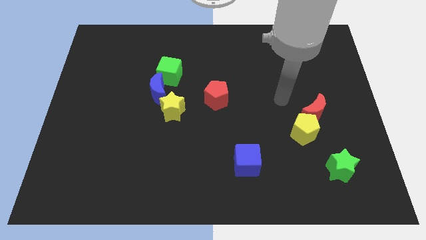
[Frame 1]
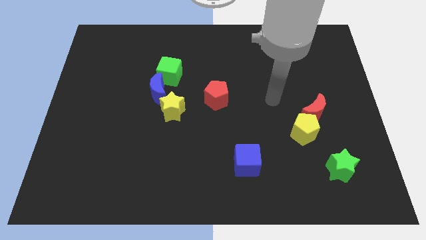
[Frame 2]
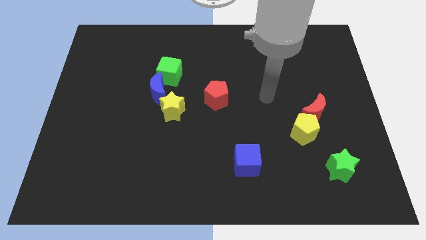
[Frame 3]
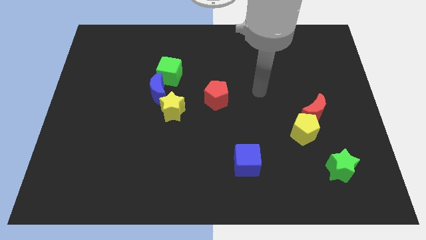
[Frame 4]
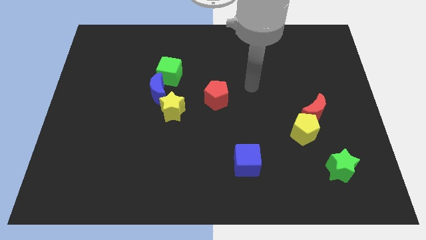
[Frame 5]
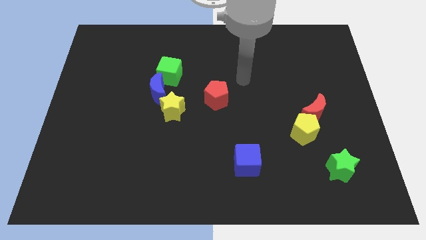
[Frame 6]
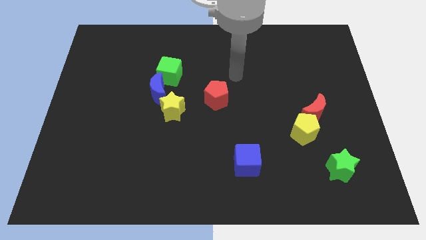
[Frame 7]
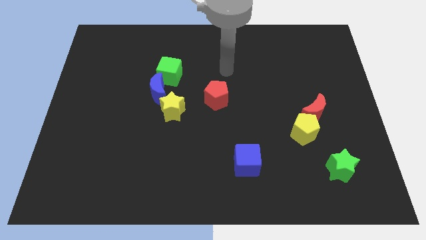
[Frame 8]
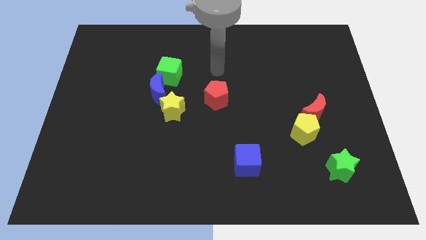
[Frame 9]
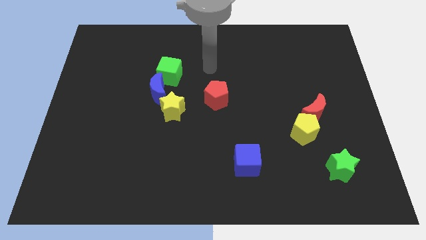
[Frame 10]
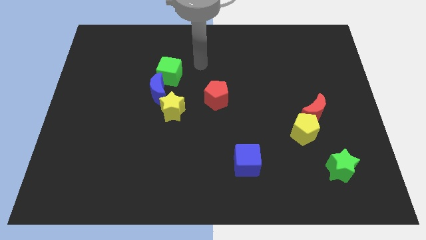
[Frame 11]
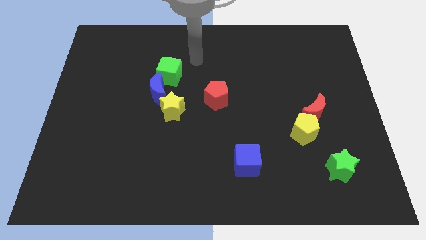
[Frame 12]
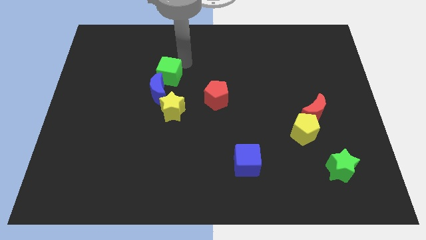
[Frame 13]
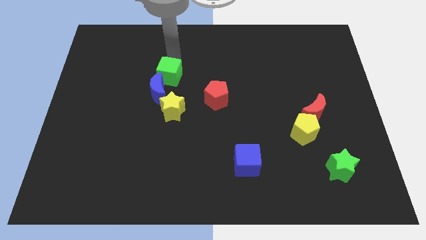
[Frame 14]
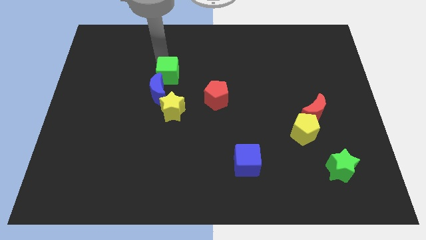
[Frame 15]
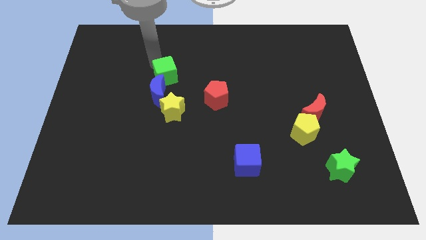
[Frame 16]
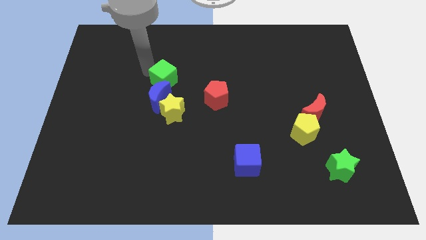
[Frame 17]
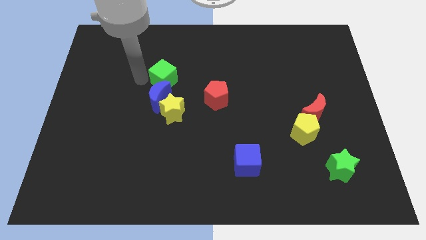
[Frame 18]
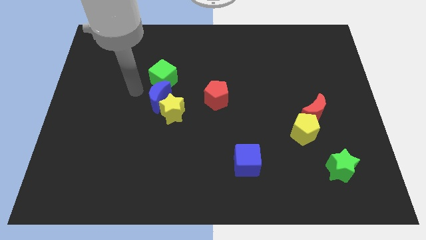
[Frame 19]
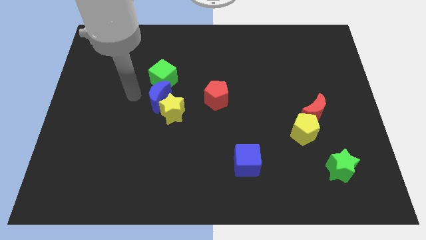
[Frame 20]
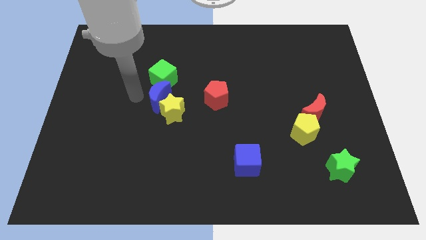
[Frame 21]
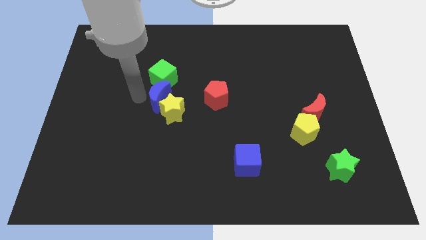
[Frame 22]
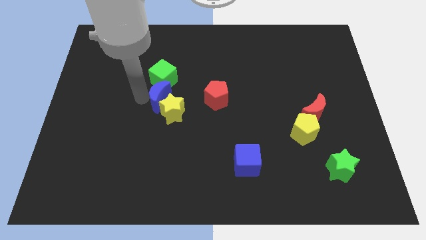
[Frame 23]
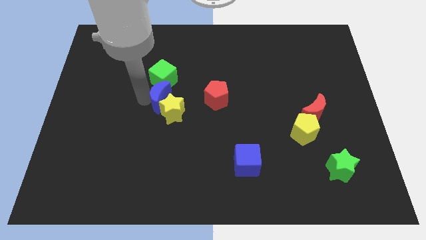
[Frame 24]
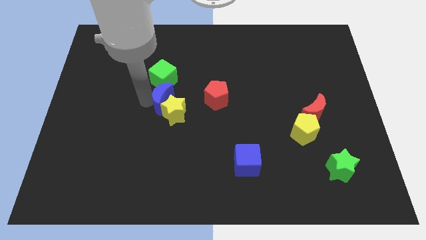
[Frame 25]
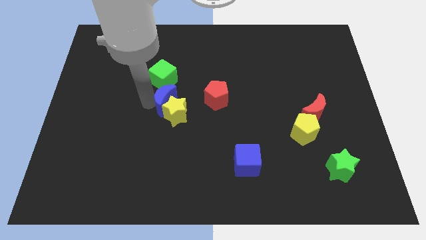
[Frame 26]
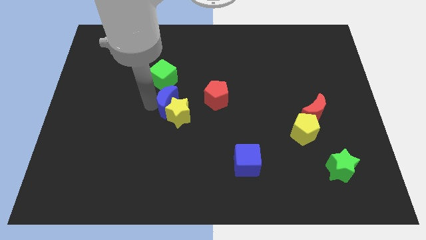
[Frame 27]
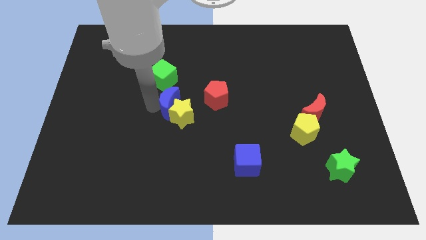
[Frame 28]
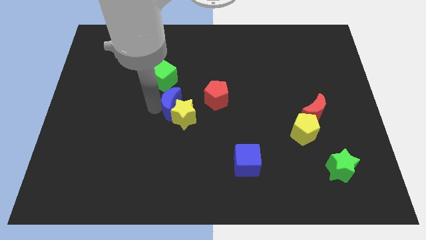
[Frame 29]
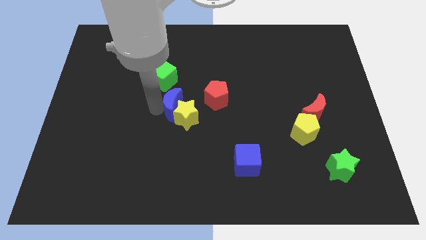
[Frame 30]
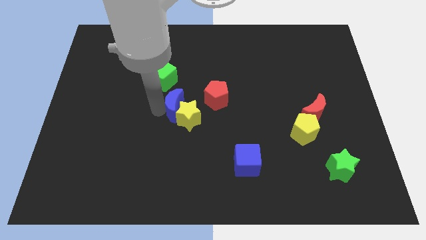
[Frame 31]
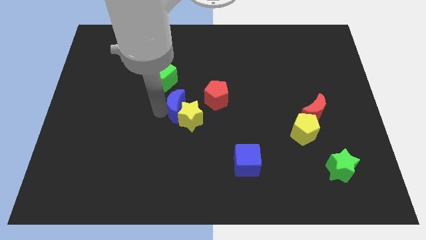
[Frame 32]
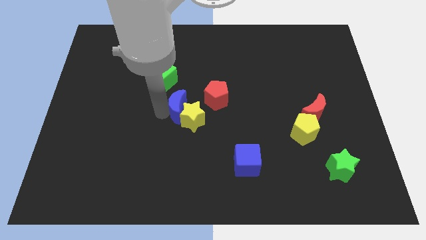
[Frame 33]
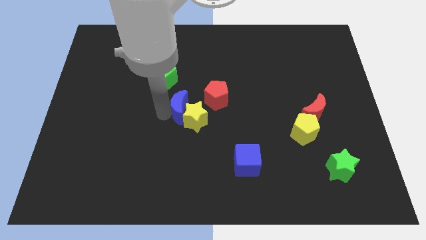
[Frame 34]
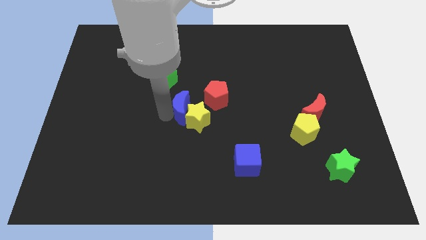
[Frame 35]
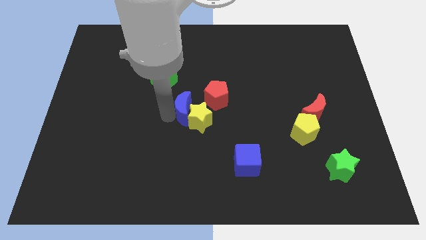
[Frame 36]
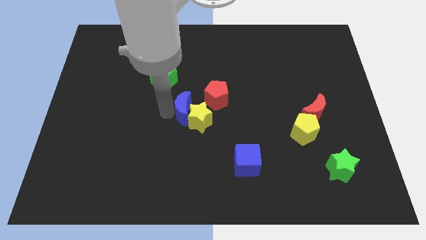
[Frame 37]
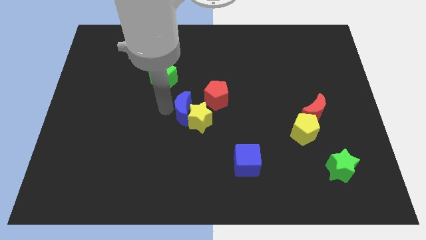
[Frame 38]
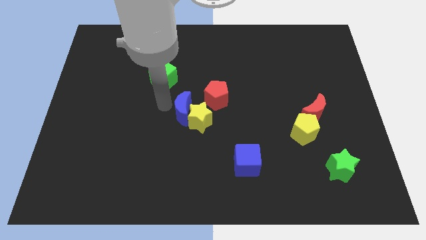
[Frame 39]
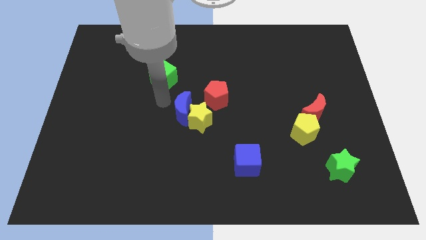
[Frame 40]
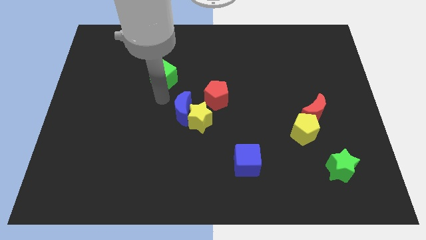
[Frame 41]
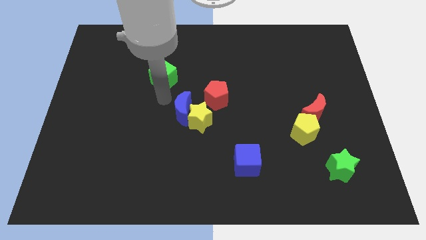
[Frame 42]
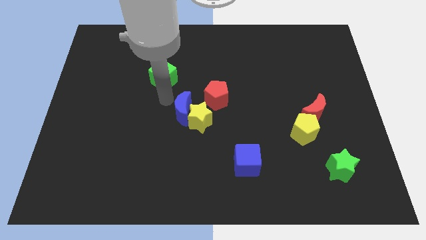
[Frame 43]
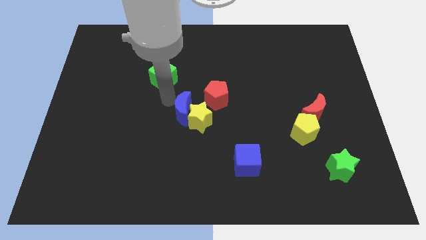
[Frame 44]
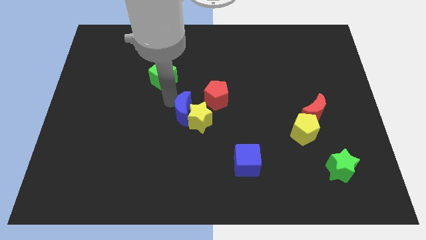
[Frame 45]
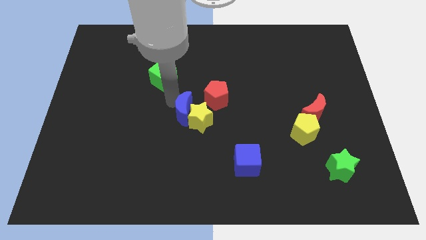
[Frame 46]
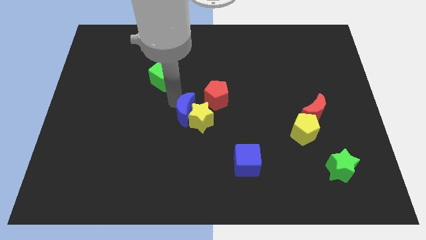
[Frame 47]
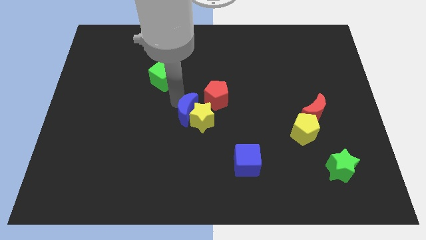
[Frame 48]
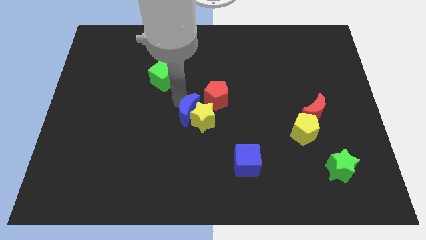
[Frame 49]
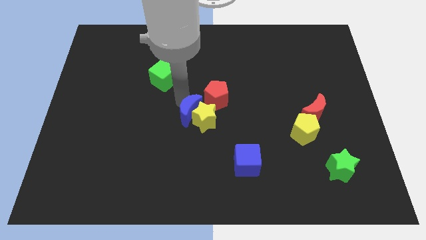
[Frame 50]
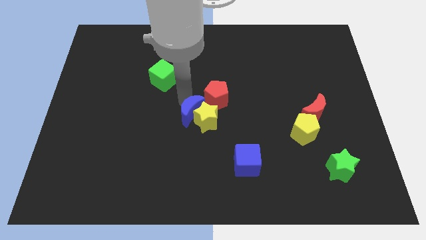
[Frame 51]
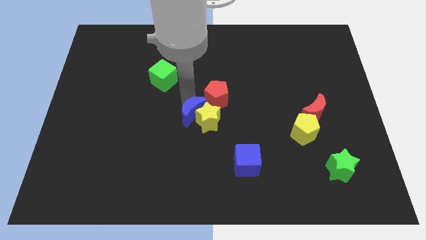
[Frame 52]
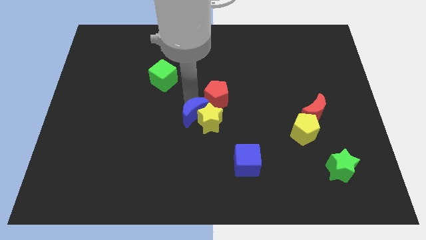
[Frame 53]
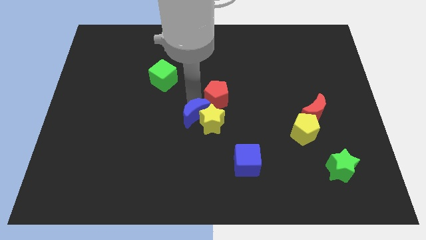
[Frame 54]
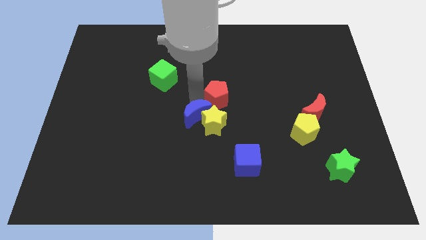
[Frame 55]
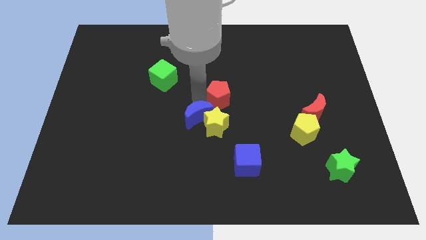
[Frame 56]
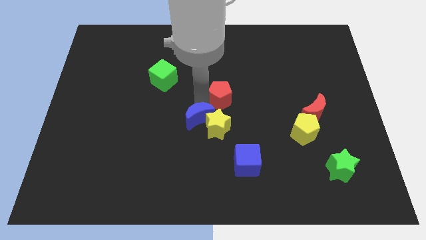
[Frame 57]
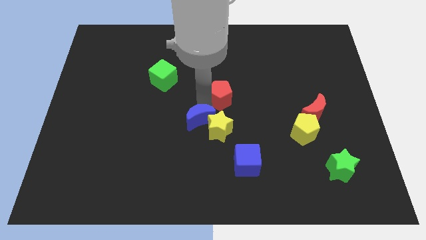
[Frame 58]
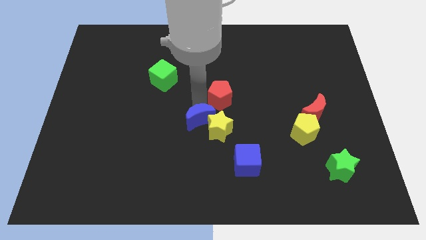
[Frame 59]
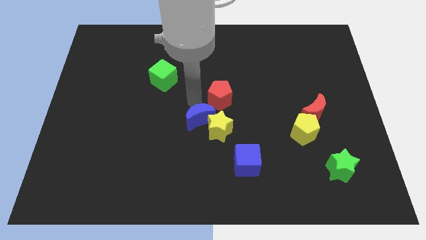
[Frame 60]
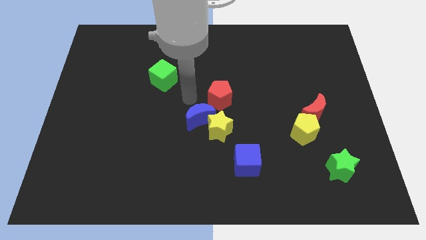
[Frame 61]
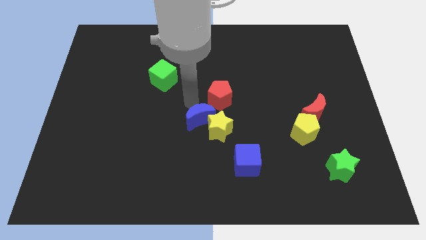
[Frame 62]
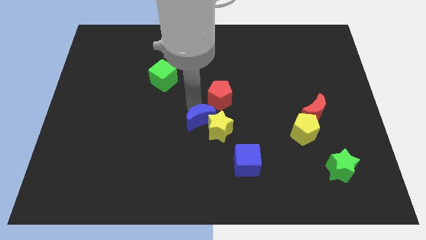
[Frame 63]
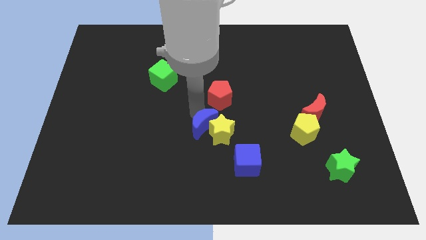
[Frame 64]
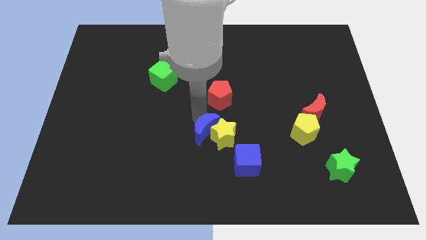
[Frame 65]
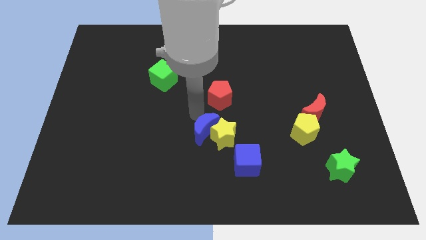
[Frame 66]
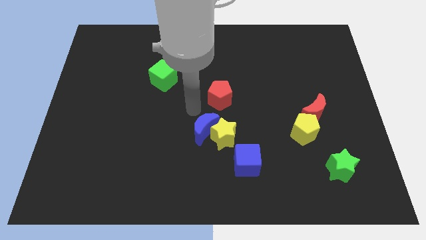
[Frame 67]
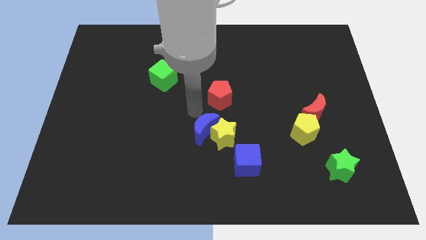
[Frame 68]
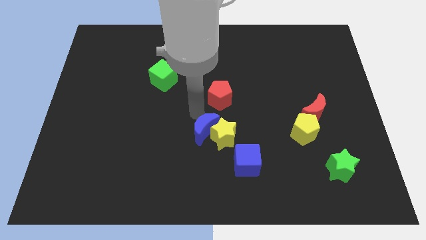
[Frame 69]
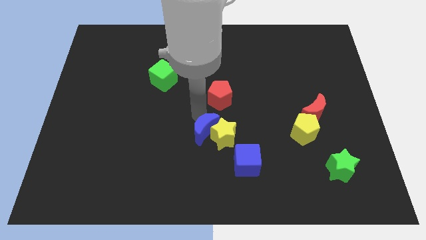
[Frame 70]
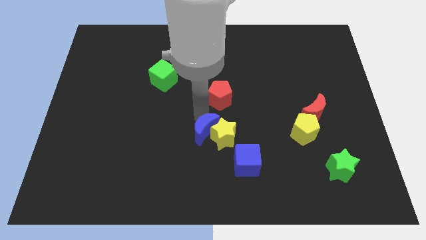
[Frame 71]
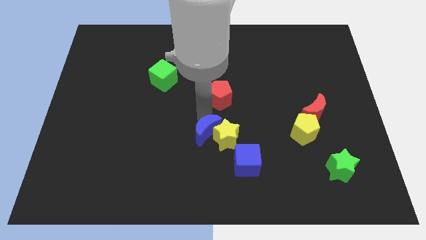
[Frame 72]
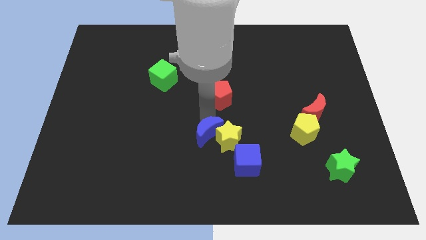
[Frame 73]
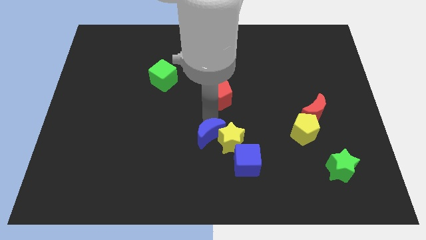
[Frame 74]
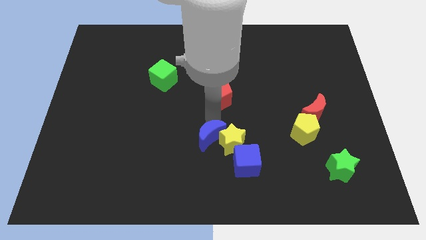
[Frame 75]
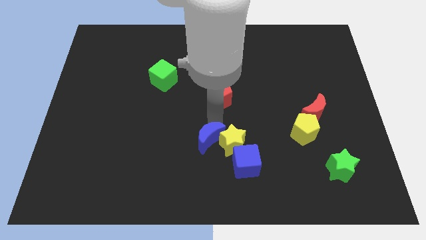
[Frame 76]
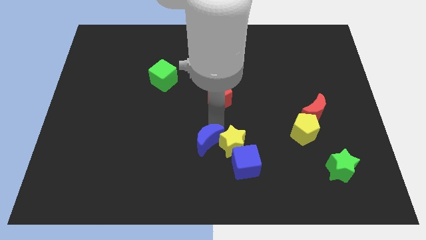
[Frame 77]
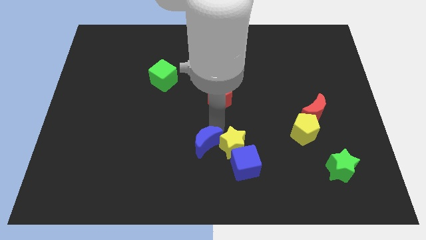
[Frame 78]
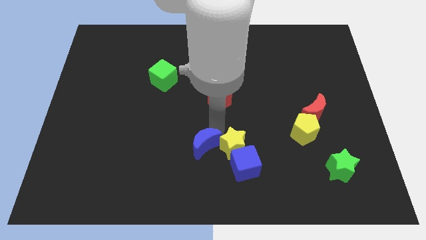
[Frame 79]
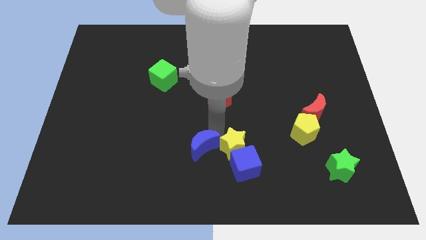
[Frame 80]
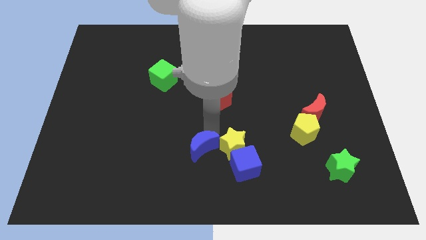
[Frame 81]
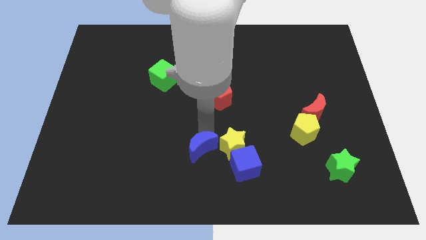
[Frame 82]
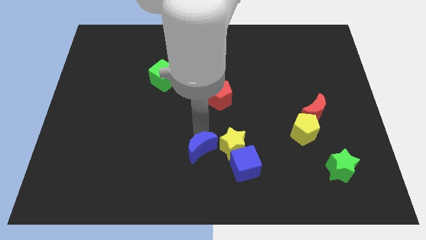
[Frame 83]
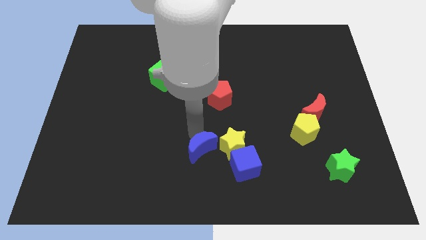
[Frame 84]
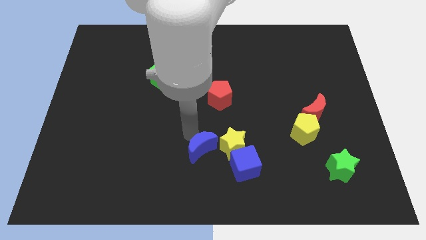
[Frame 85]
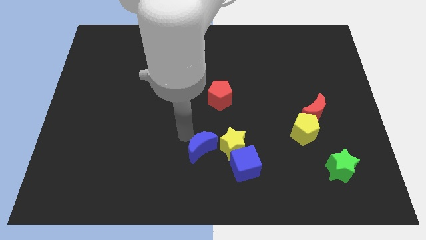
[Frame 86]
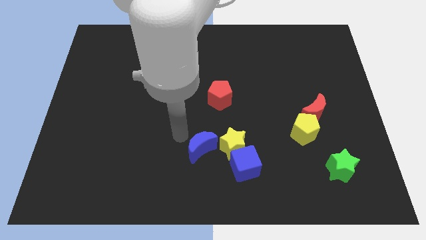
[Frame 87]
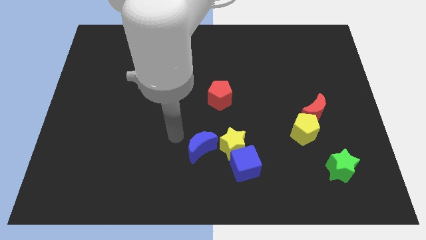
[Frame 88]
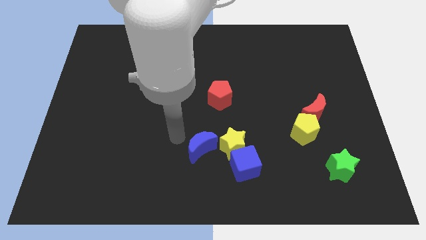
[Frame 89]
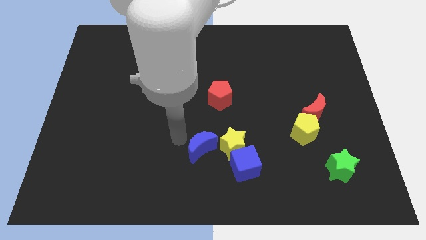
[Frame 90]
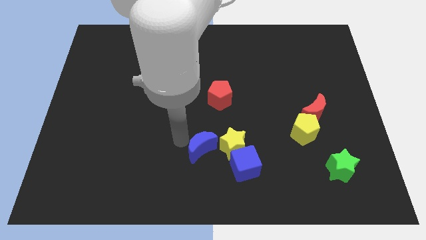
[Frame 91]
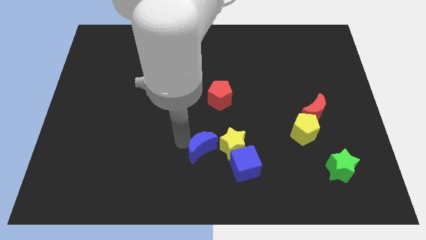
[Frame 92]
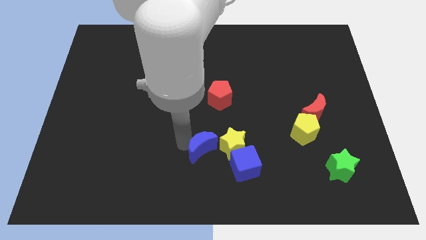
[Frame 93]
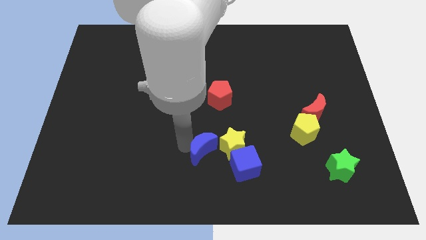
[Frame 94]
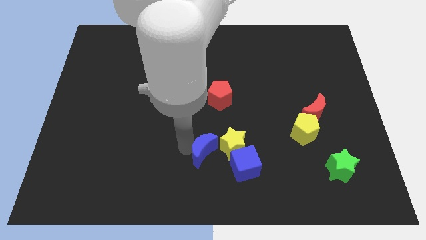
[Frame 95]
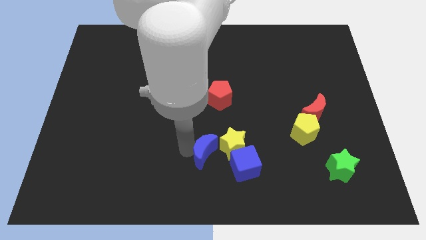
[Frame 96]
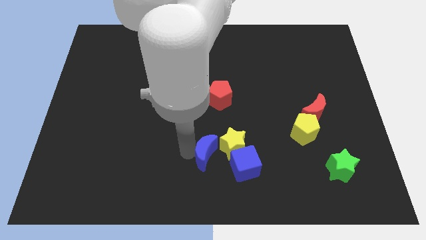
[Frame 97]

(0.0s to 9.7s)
slide the blue moon down and right
